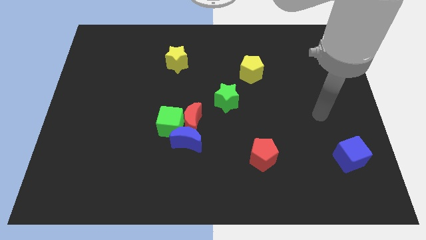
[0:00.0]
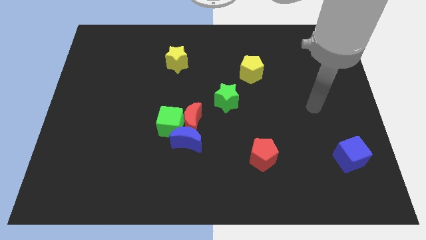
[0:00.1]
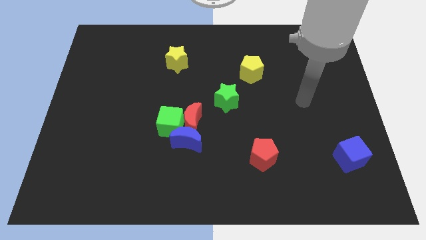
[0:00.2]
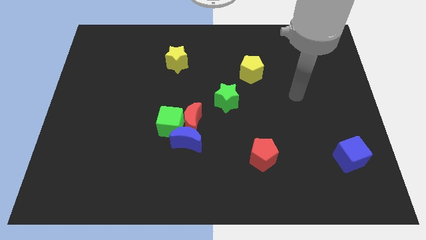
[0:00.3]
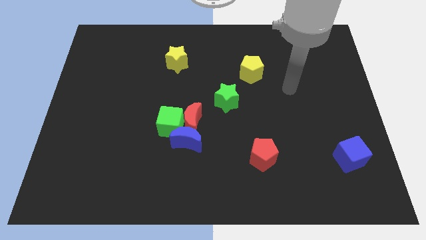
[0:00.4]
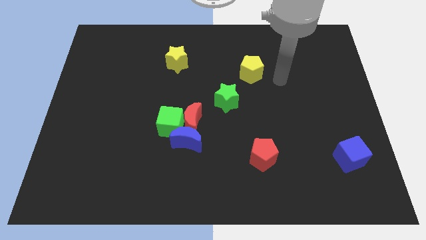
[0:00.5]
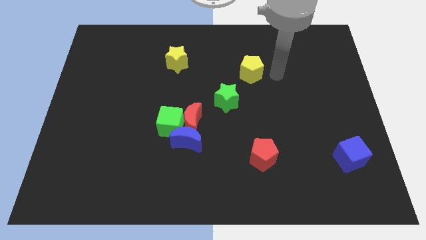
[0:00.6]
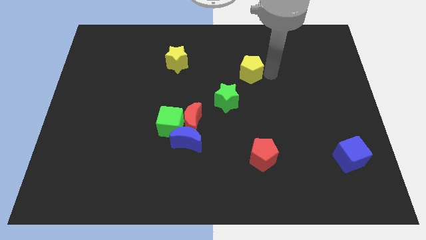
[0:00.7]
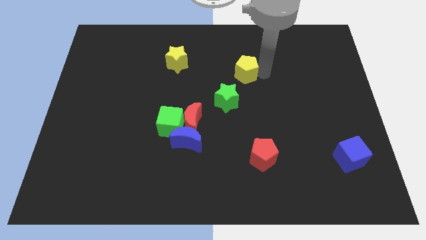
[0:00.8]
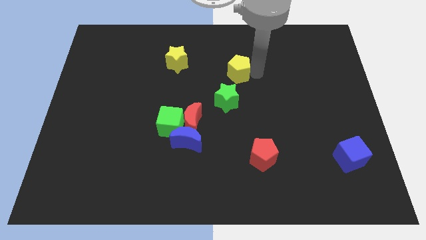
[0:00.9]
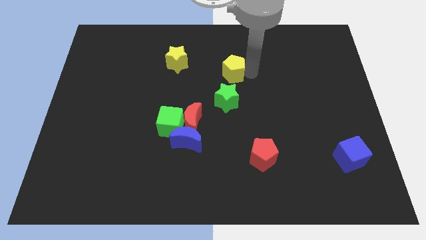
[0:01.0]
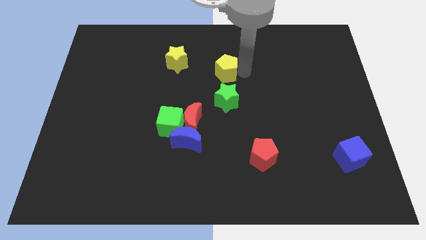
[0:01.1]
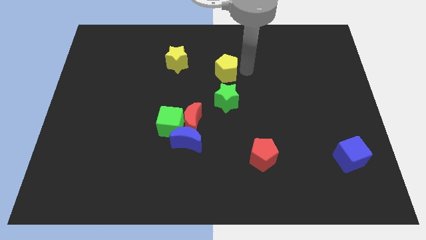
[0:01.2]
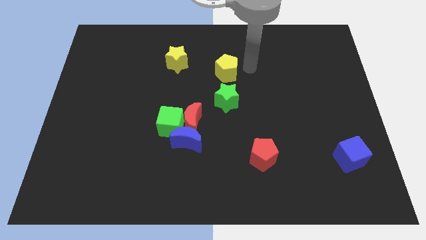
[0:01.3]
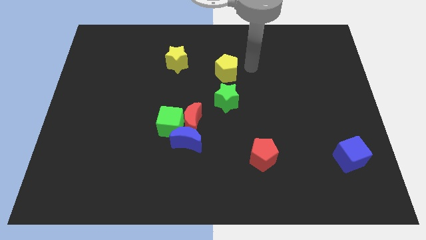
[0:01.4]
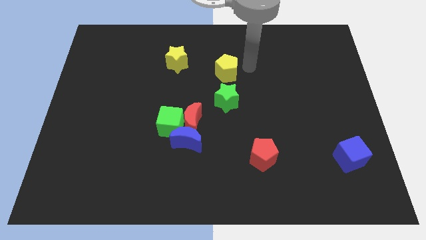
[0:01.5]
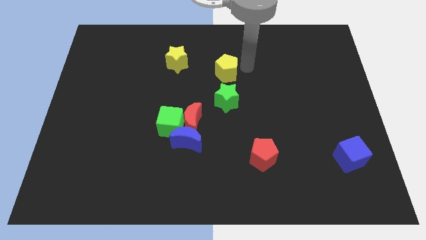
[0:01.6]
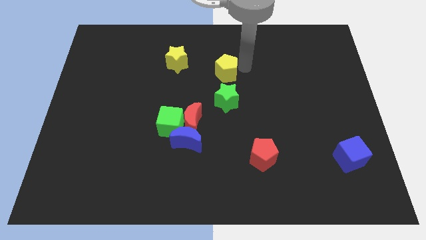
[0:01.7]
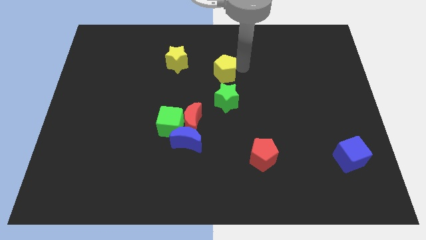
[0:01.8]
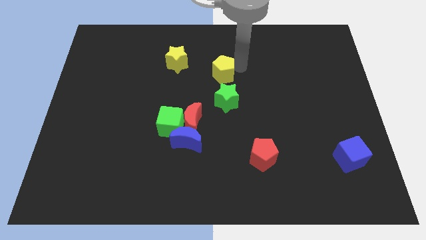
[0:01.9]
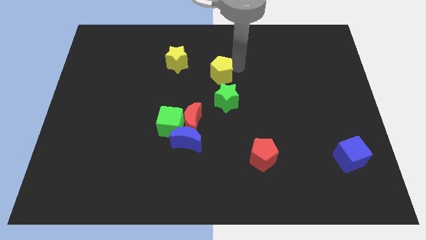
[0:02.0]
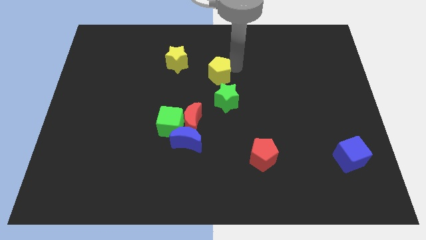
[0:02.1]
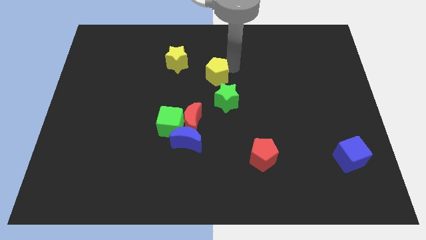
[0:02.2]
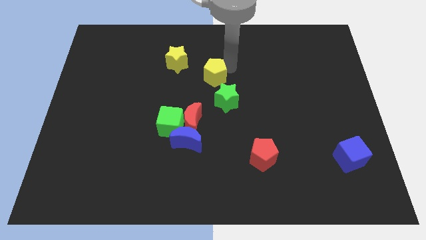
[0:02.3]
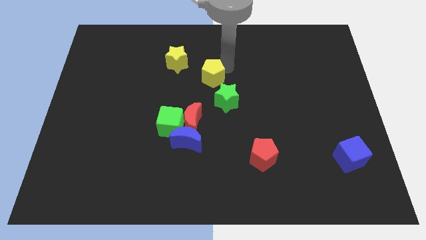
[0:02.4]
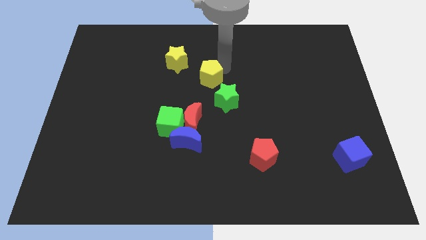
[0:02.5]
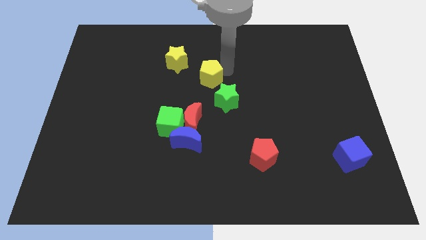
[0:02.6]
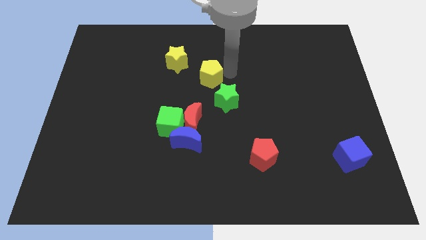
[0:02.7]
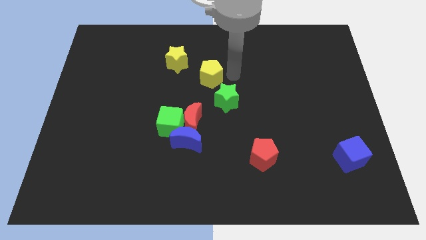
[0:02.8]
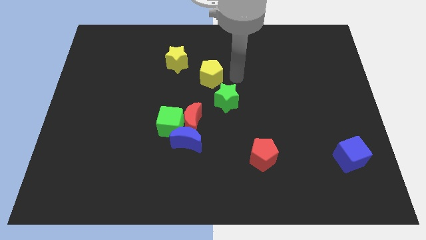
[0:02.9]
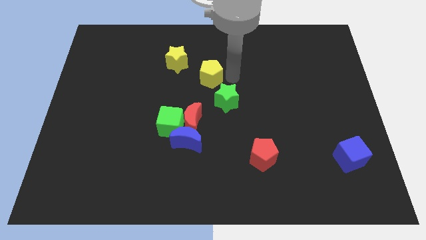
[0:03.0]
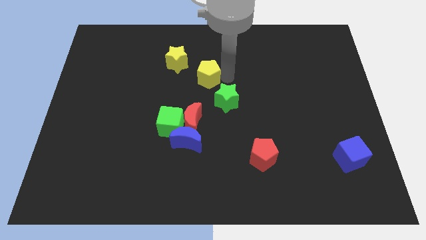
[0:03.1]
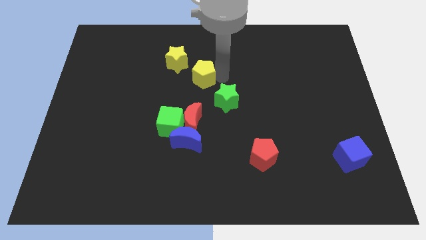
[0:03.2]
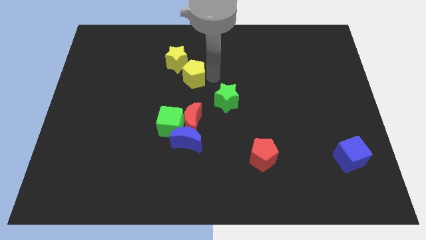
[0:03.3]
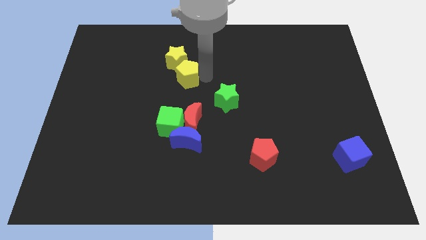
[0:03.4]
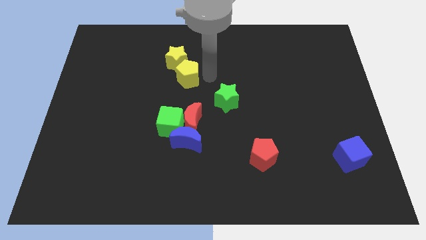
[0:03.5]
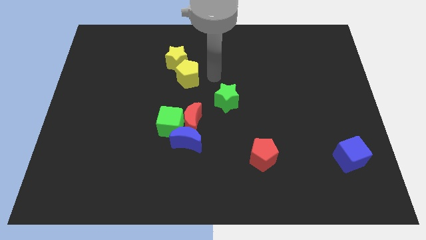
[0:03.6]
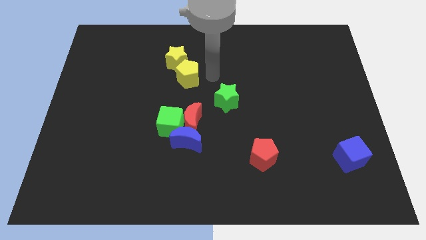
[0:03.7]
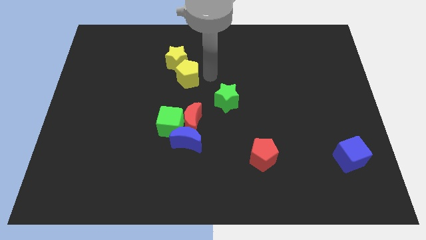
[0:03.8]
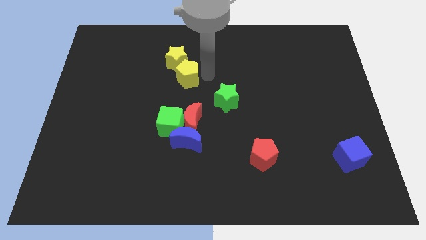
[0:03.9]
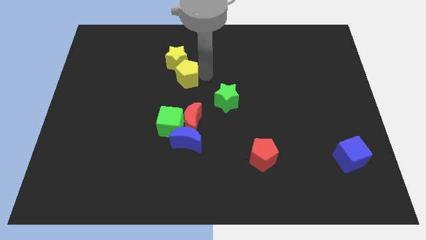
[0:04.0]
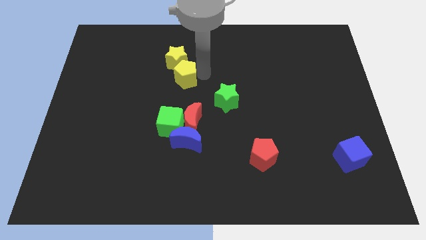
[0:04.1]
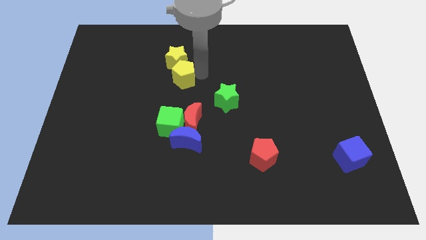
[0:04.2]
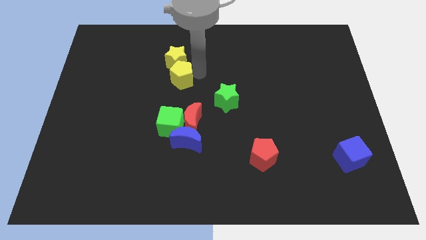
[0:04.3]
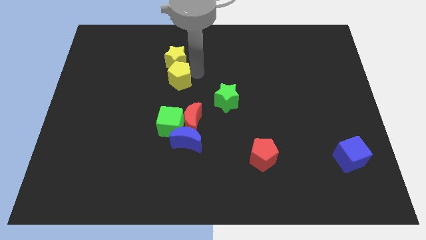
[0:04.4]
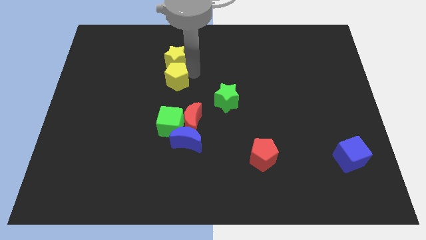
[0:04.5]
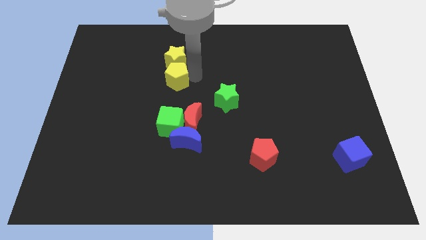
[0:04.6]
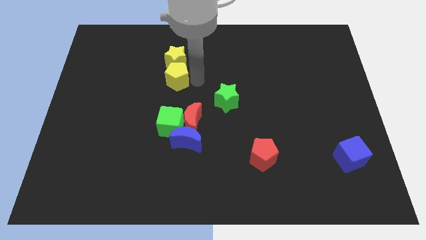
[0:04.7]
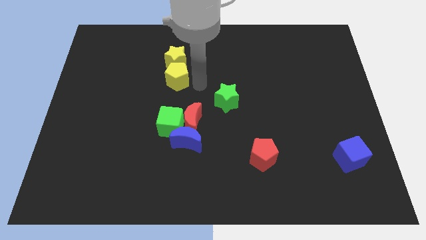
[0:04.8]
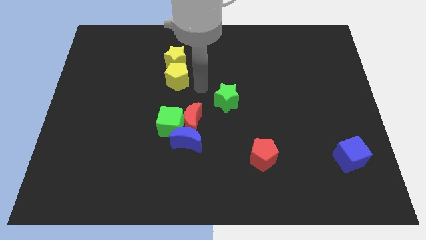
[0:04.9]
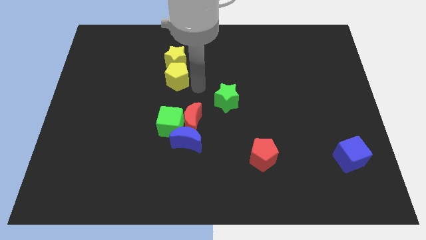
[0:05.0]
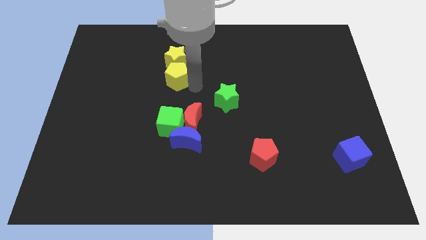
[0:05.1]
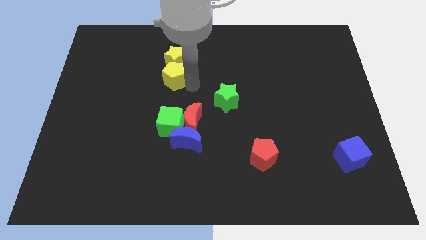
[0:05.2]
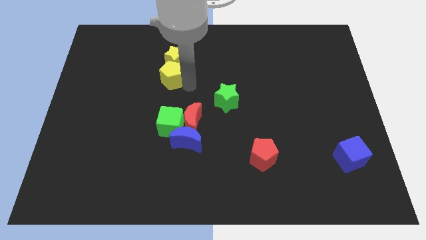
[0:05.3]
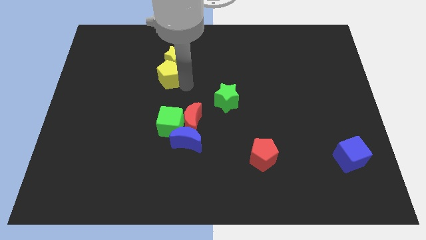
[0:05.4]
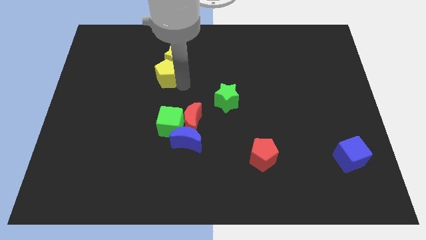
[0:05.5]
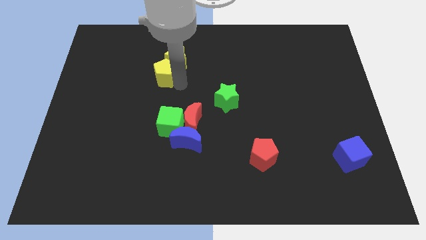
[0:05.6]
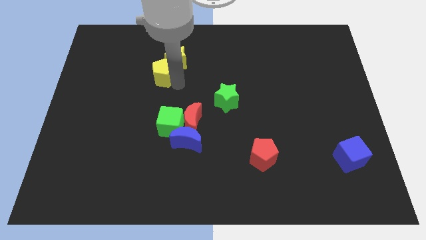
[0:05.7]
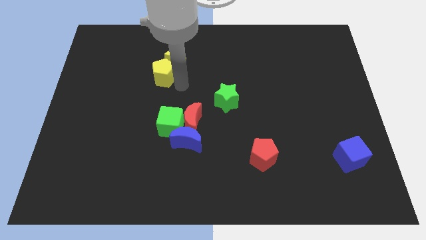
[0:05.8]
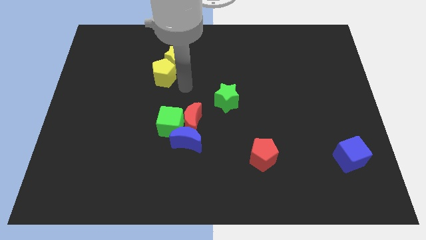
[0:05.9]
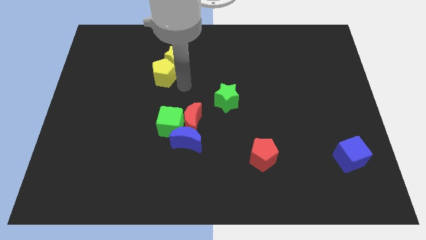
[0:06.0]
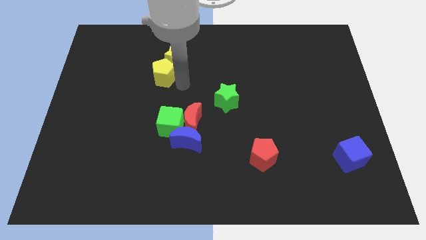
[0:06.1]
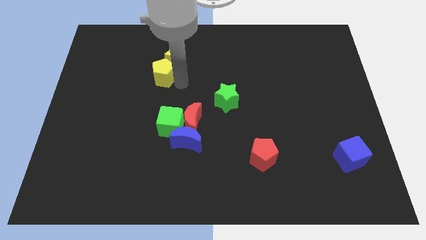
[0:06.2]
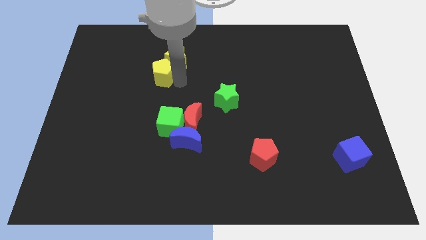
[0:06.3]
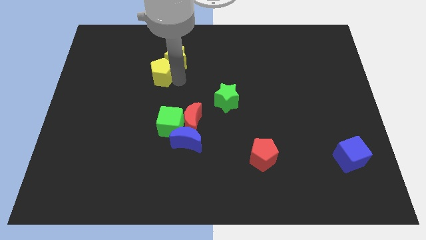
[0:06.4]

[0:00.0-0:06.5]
move the yellow pentagon just left of the yellow star
